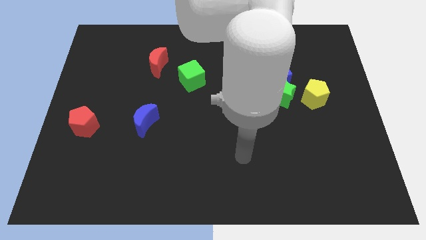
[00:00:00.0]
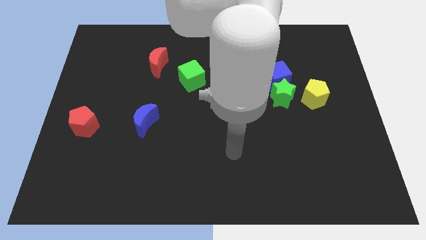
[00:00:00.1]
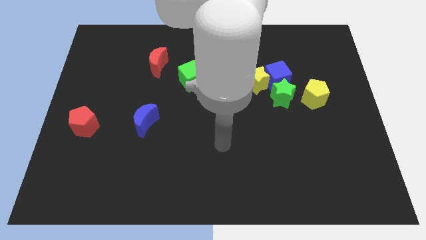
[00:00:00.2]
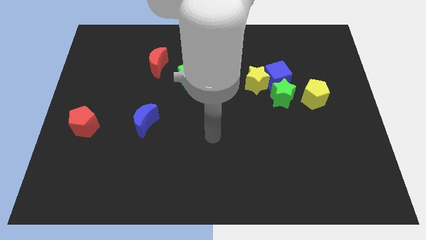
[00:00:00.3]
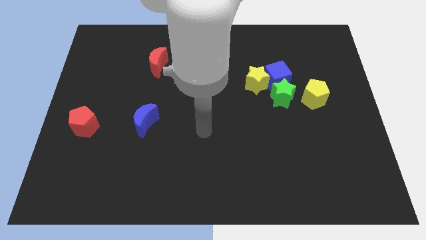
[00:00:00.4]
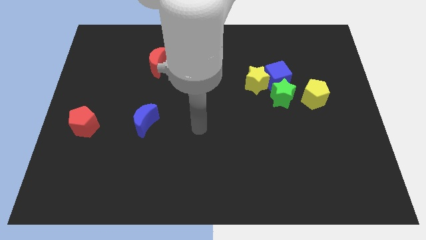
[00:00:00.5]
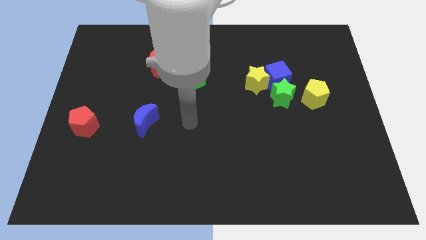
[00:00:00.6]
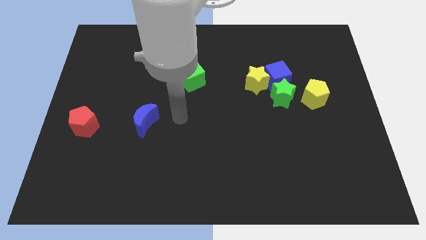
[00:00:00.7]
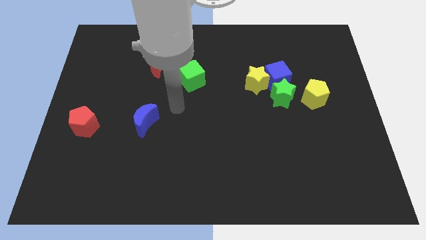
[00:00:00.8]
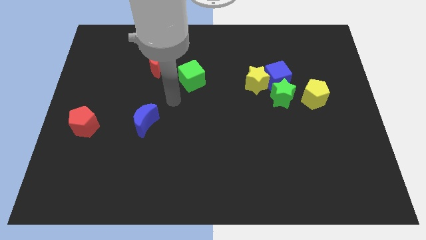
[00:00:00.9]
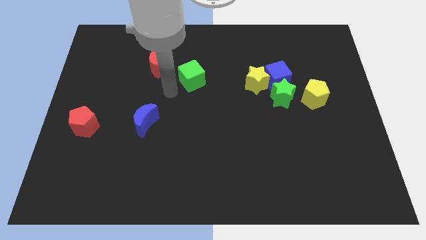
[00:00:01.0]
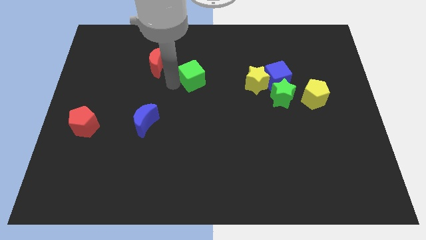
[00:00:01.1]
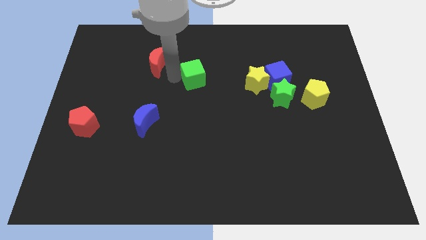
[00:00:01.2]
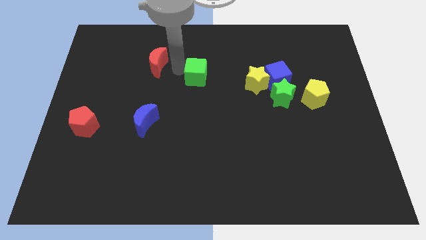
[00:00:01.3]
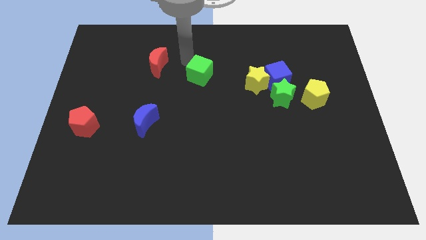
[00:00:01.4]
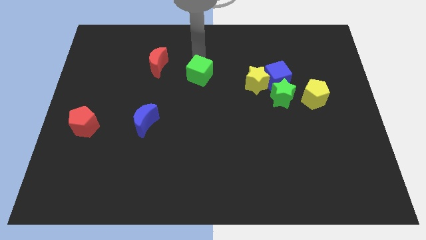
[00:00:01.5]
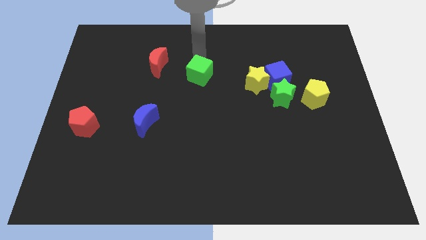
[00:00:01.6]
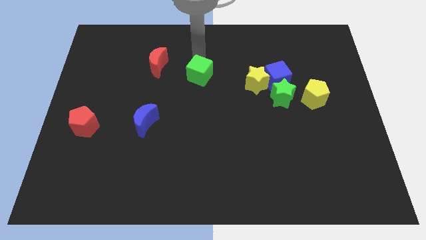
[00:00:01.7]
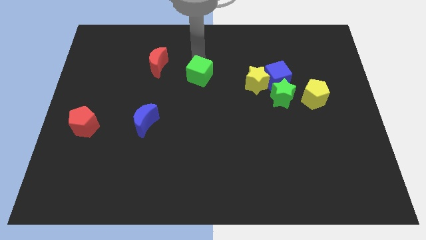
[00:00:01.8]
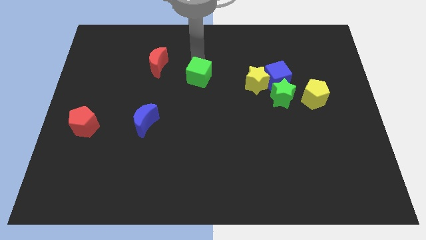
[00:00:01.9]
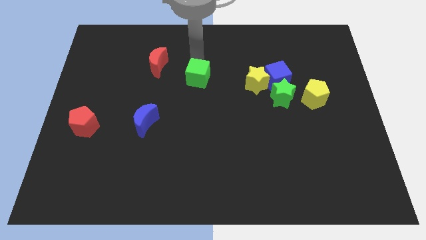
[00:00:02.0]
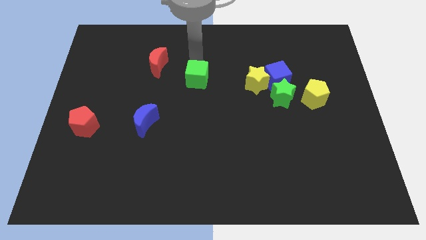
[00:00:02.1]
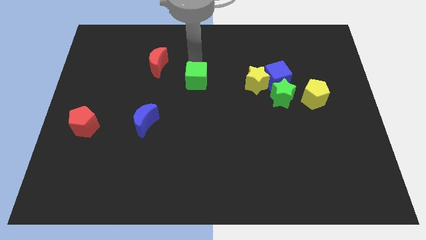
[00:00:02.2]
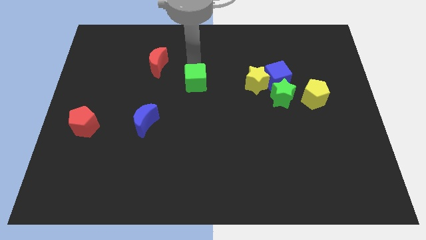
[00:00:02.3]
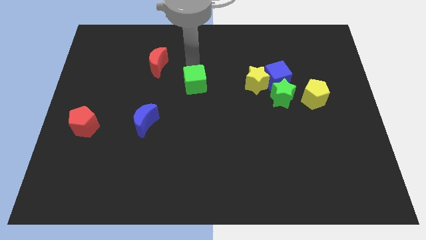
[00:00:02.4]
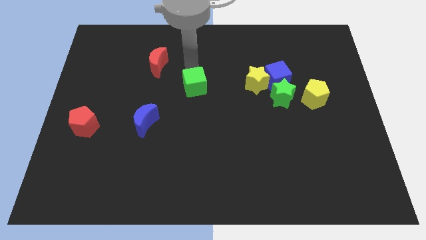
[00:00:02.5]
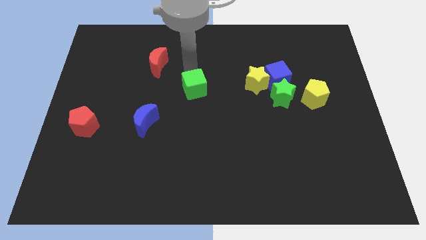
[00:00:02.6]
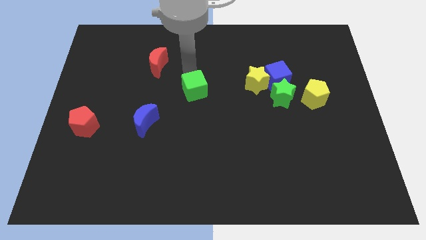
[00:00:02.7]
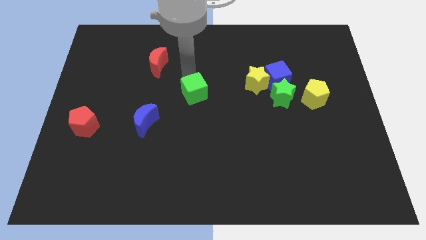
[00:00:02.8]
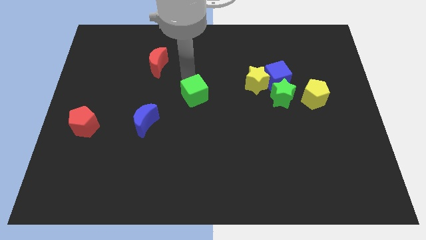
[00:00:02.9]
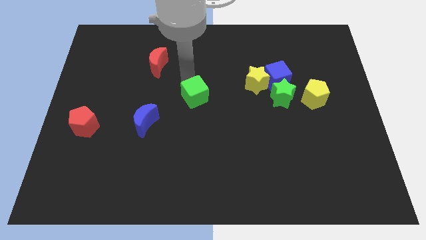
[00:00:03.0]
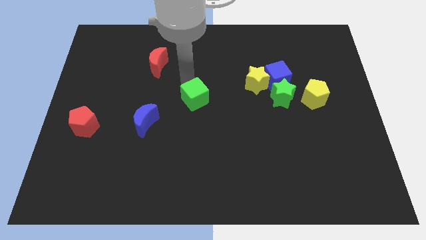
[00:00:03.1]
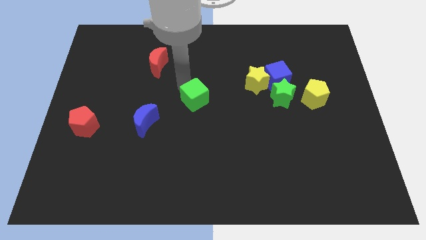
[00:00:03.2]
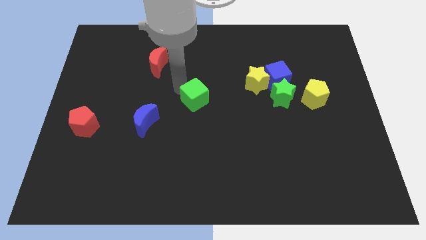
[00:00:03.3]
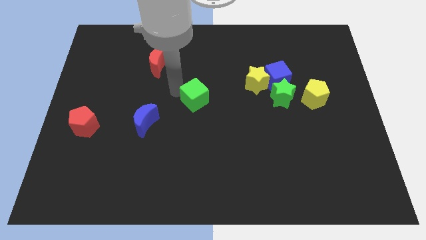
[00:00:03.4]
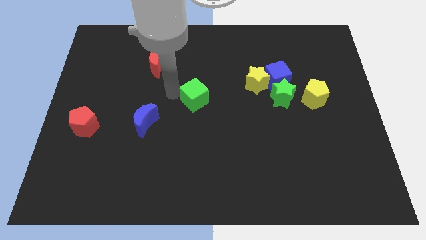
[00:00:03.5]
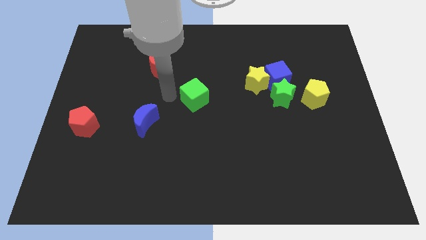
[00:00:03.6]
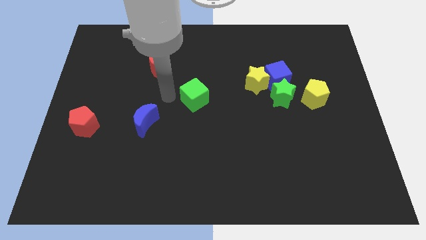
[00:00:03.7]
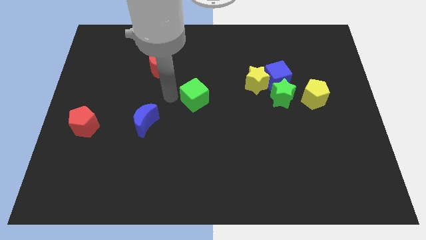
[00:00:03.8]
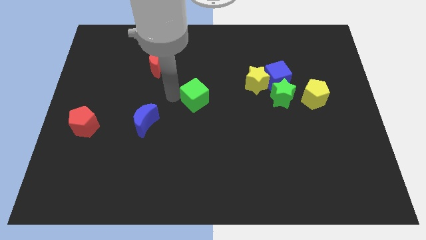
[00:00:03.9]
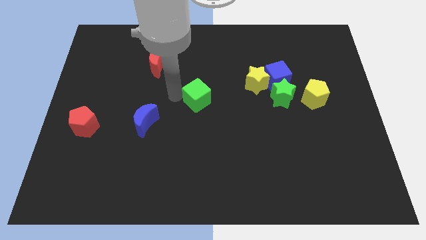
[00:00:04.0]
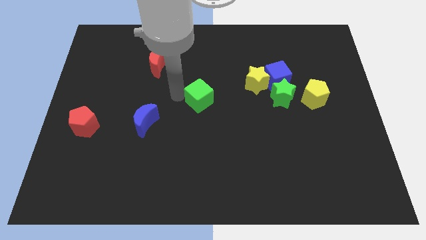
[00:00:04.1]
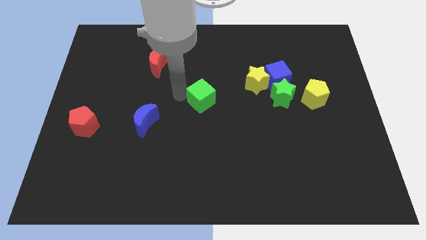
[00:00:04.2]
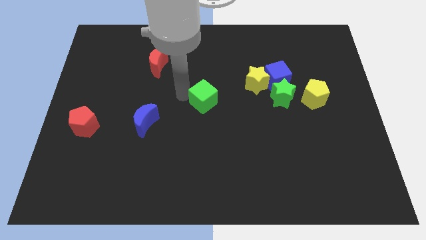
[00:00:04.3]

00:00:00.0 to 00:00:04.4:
push the green cube a bit downwards and right

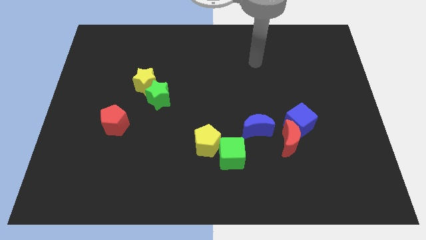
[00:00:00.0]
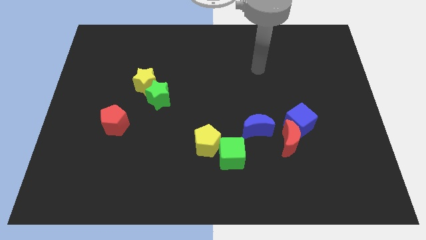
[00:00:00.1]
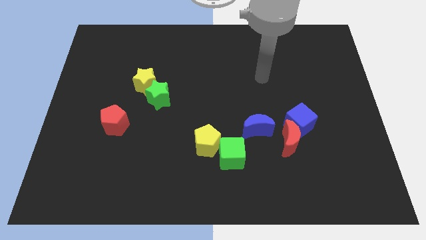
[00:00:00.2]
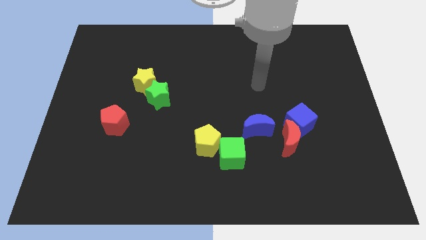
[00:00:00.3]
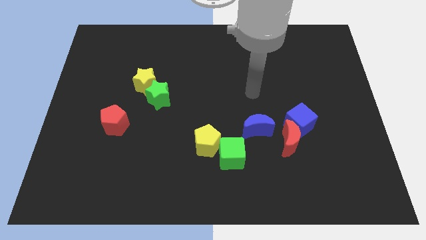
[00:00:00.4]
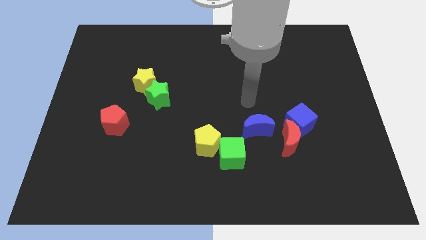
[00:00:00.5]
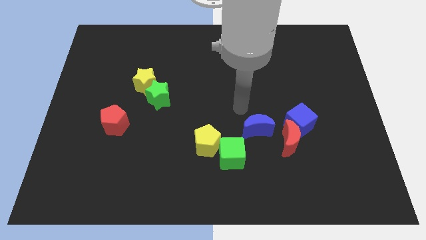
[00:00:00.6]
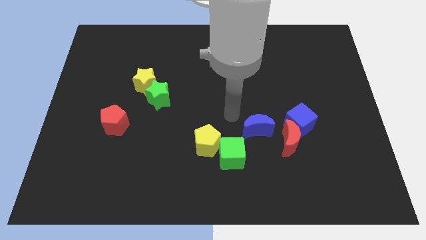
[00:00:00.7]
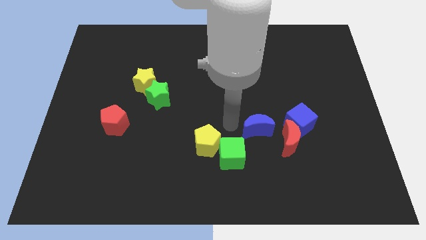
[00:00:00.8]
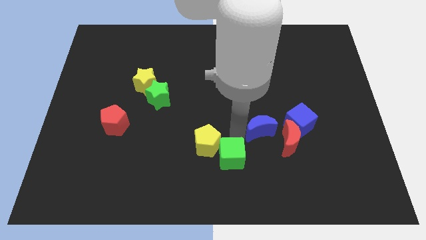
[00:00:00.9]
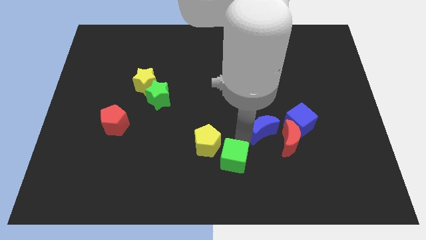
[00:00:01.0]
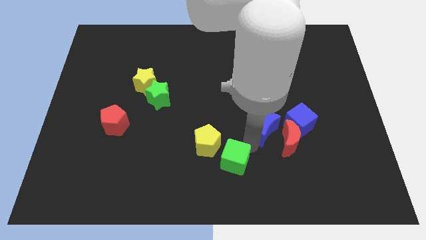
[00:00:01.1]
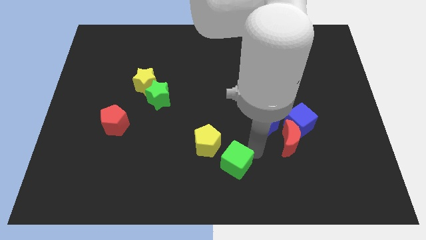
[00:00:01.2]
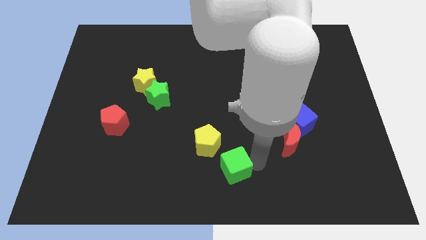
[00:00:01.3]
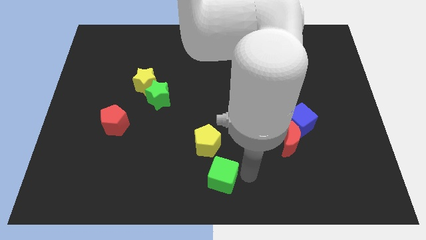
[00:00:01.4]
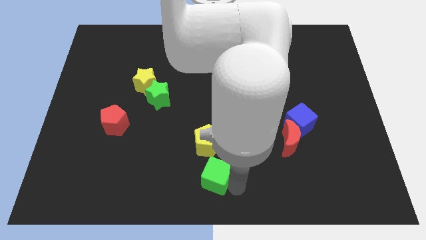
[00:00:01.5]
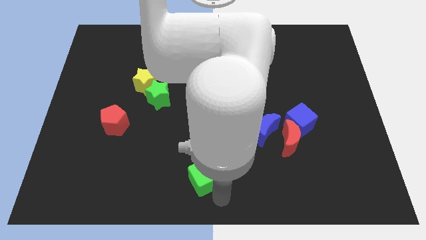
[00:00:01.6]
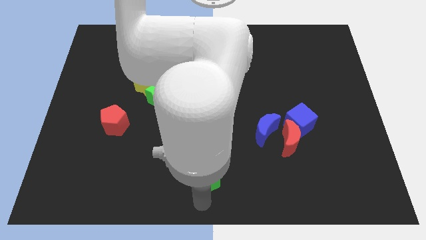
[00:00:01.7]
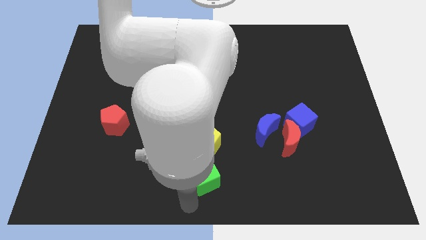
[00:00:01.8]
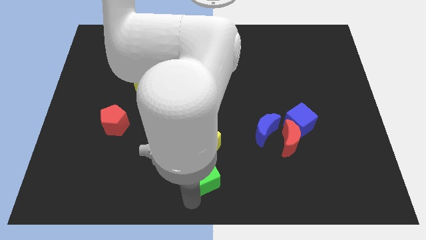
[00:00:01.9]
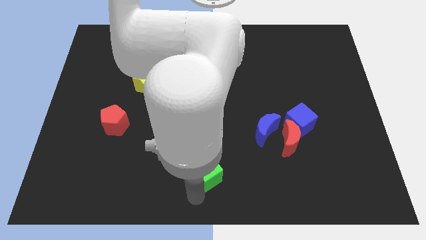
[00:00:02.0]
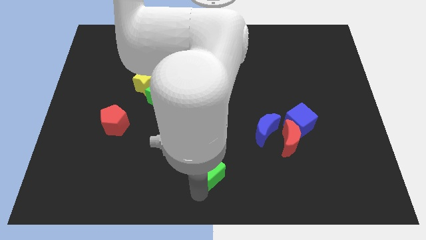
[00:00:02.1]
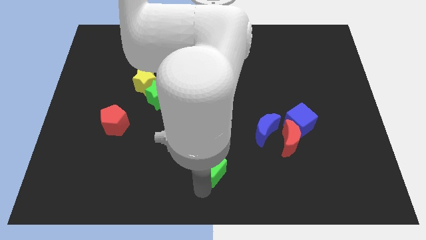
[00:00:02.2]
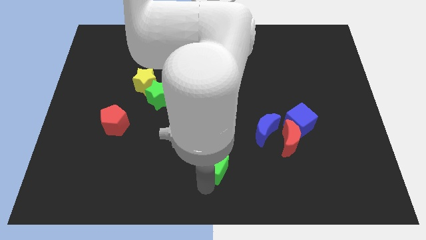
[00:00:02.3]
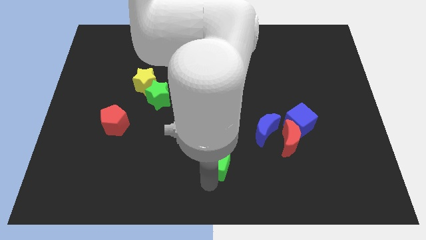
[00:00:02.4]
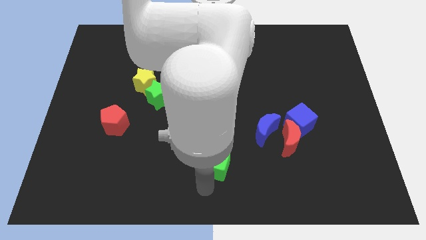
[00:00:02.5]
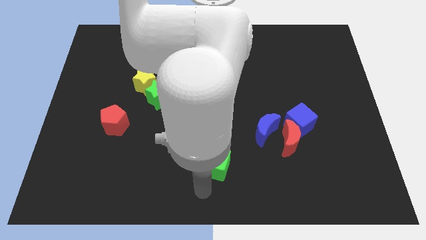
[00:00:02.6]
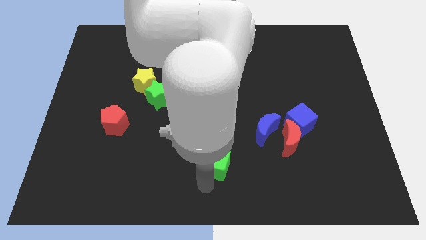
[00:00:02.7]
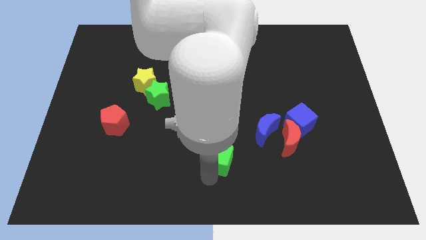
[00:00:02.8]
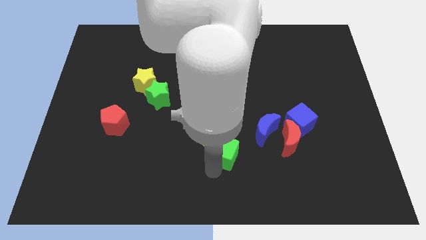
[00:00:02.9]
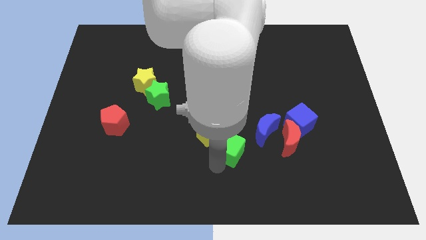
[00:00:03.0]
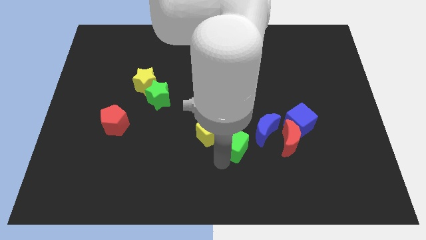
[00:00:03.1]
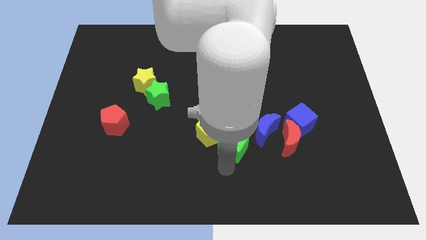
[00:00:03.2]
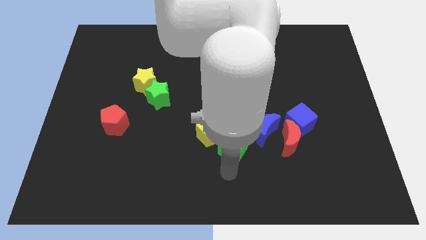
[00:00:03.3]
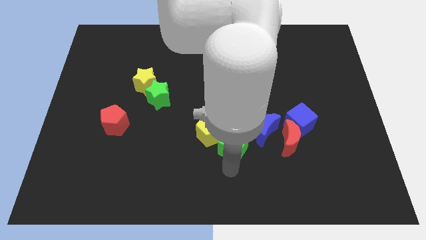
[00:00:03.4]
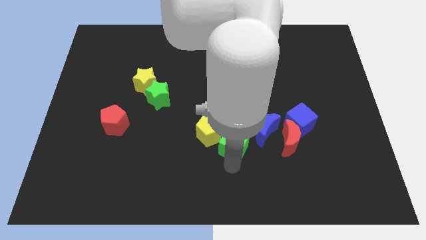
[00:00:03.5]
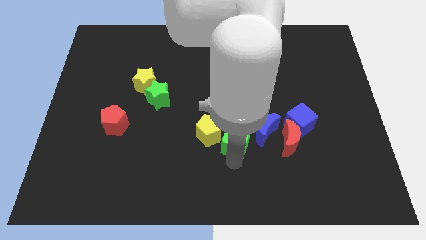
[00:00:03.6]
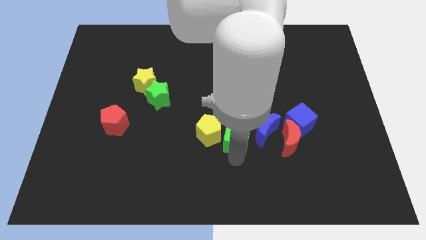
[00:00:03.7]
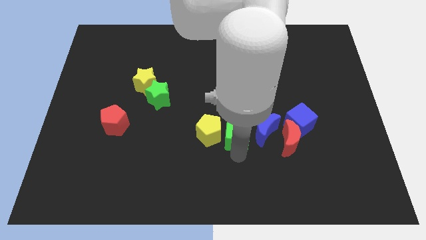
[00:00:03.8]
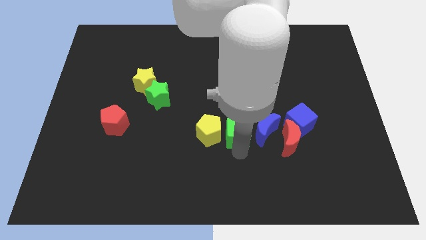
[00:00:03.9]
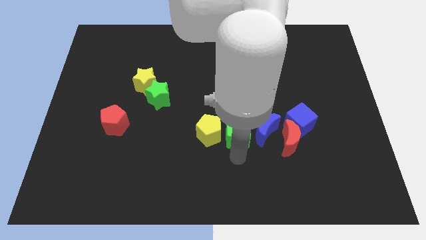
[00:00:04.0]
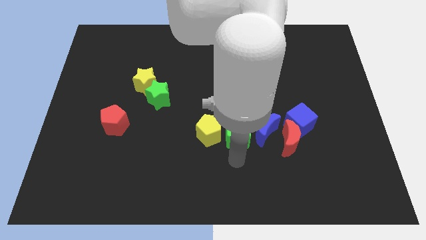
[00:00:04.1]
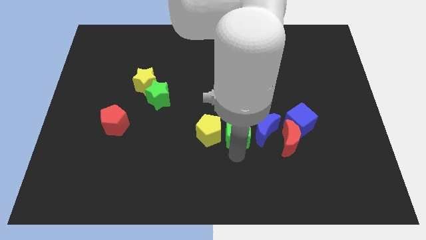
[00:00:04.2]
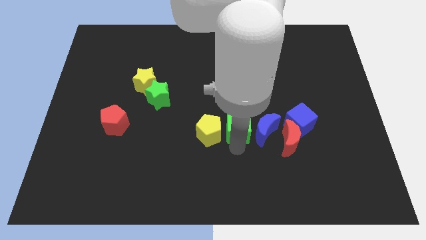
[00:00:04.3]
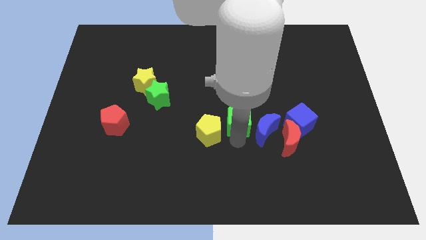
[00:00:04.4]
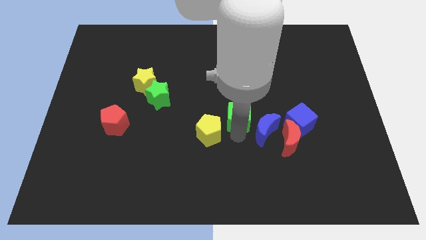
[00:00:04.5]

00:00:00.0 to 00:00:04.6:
push the green cube up and to the right diagonally a little bit
